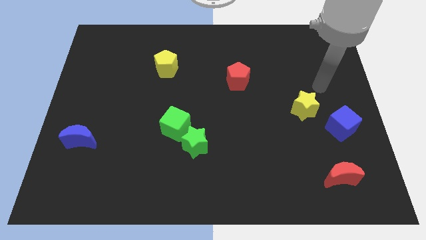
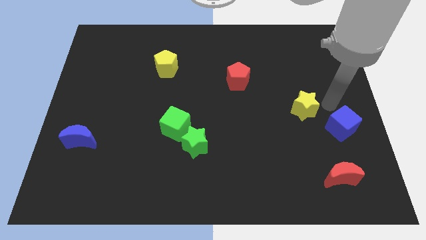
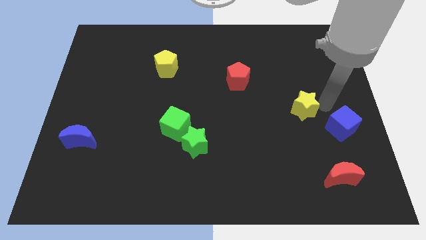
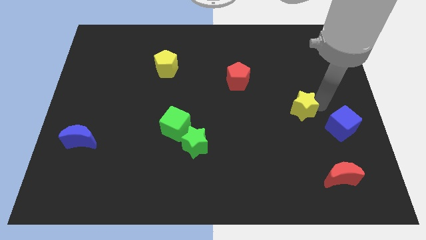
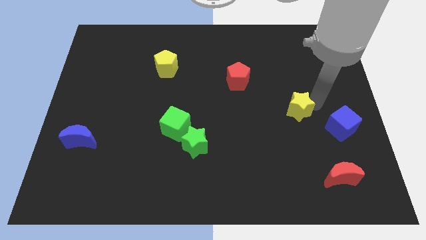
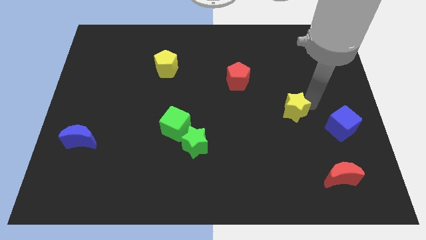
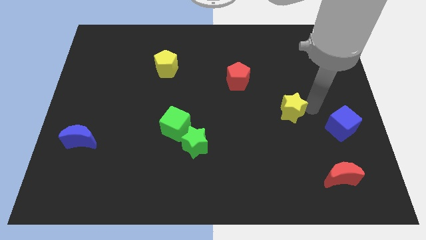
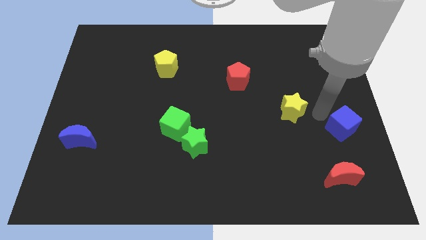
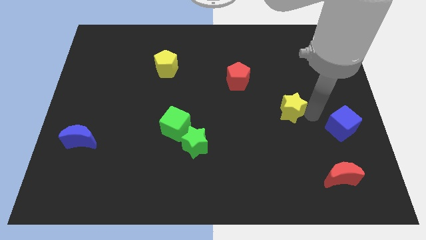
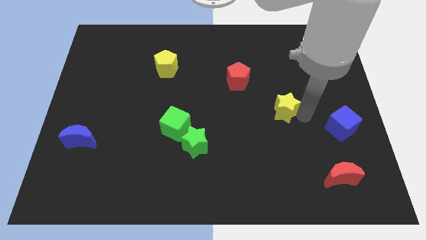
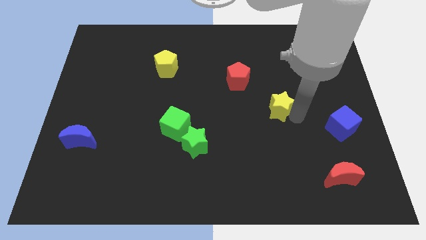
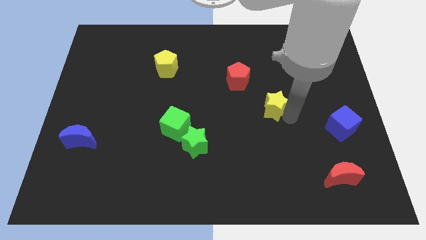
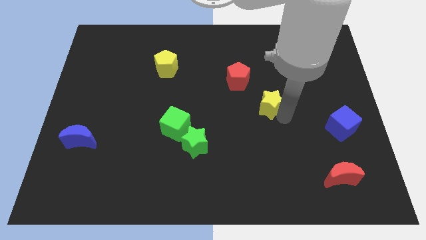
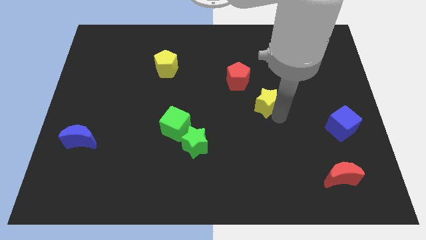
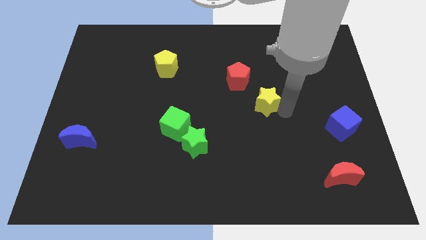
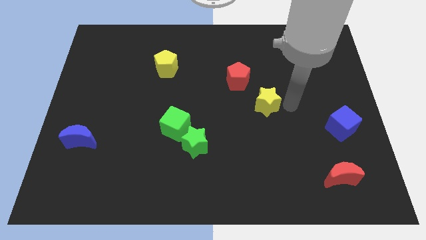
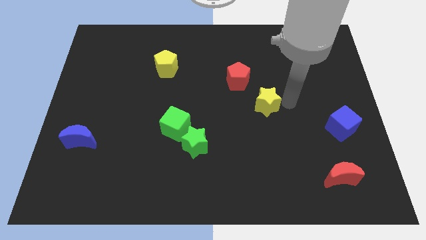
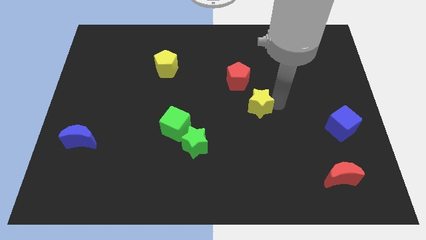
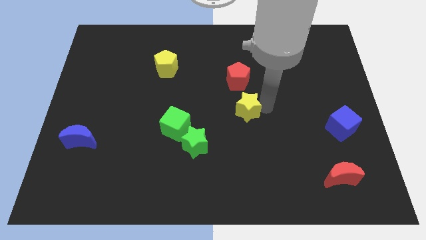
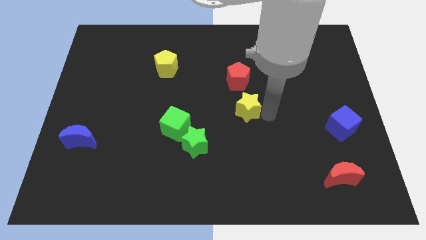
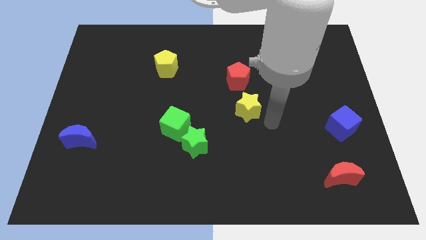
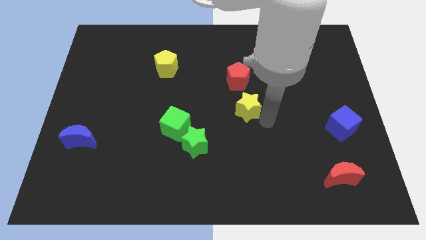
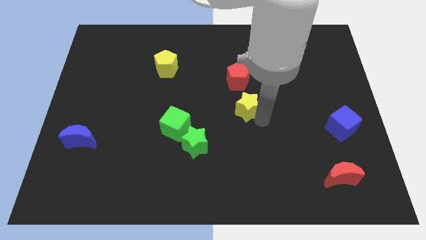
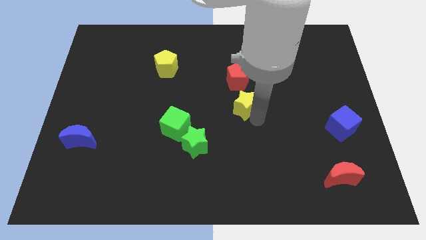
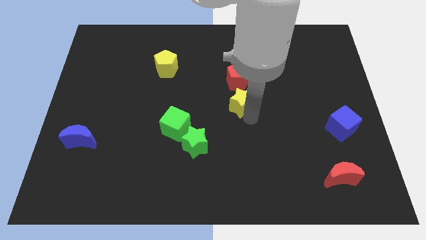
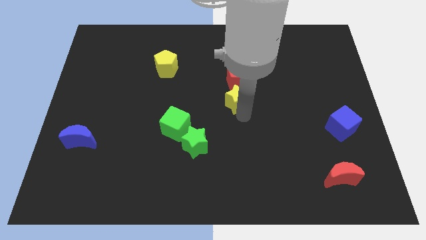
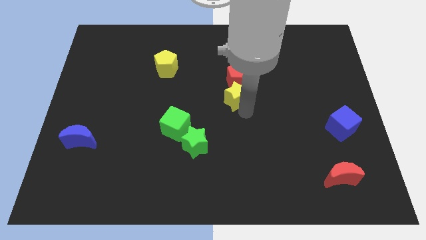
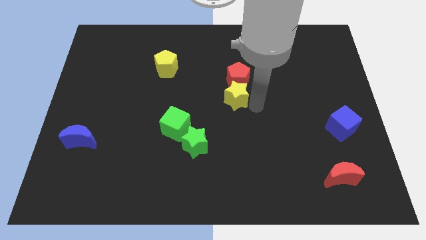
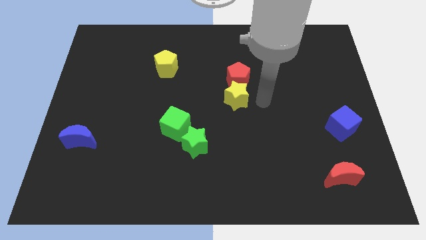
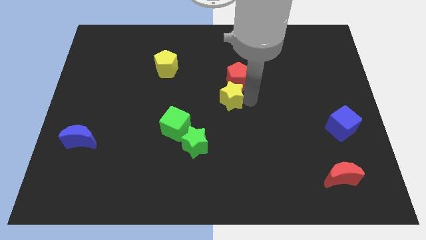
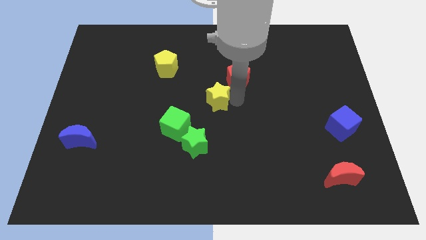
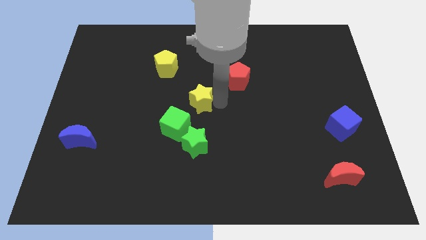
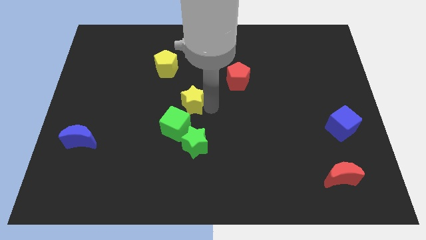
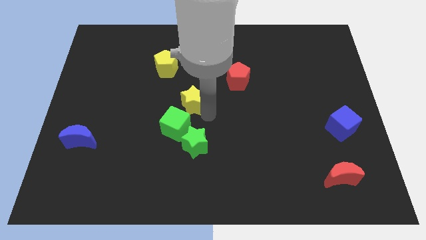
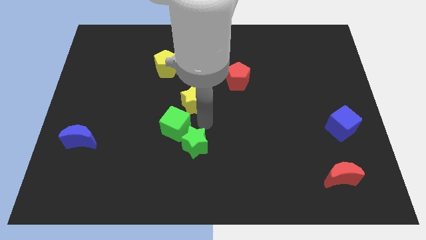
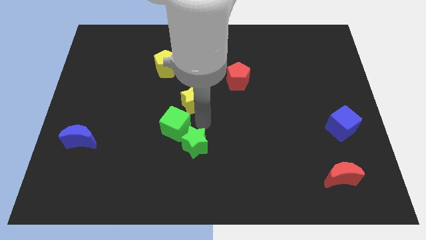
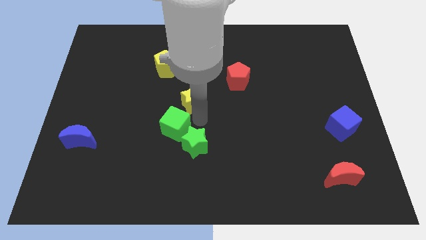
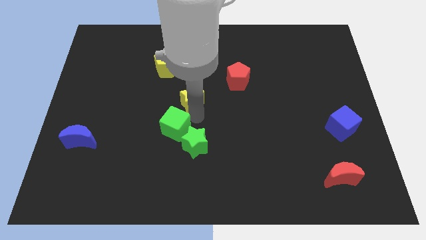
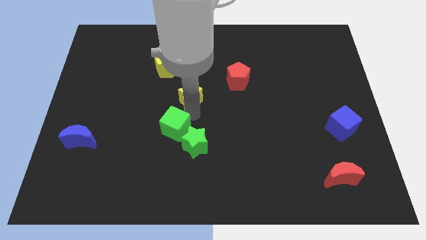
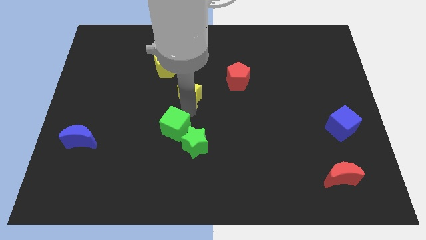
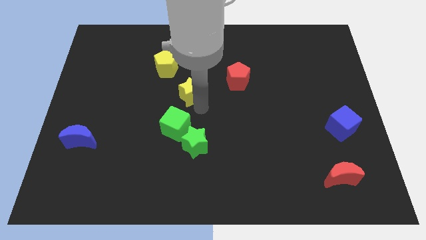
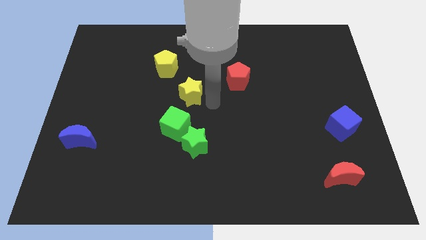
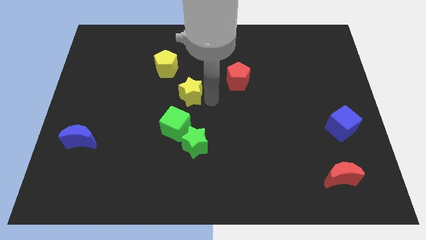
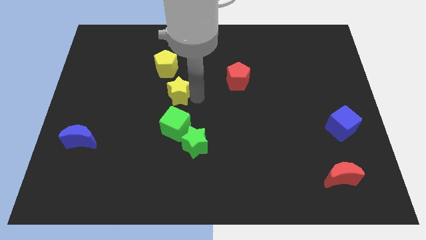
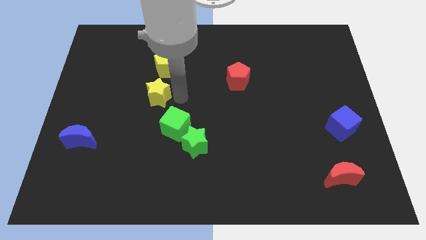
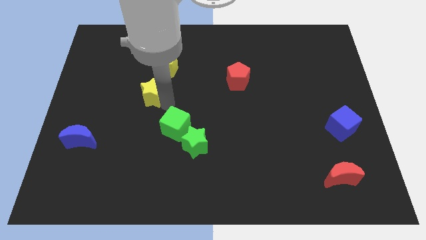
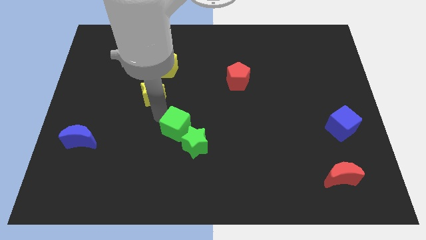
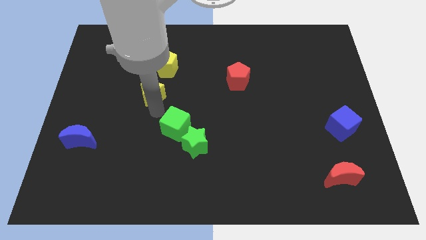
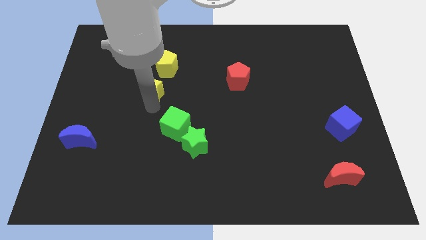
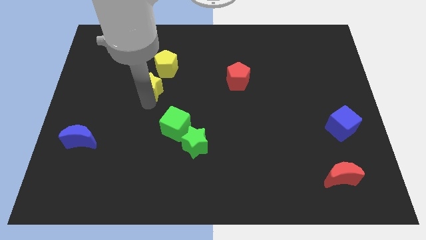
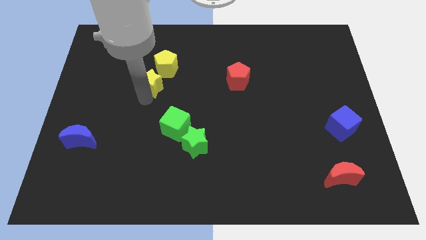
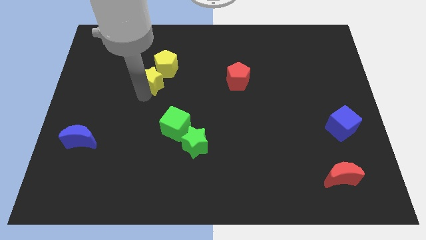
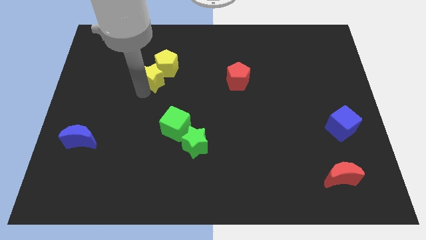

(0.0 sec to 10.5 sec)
slide the yellow star to the left side of the yellow pentagon

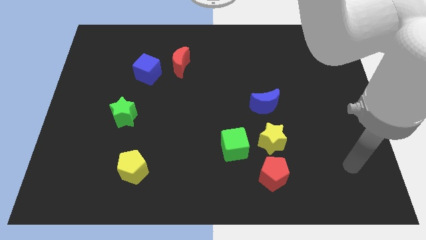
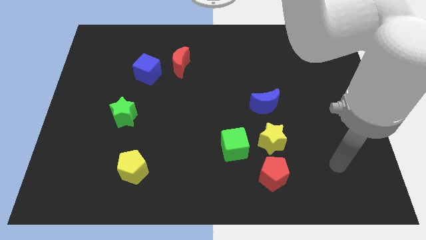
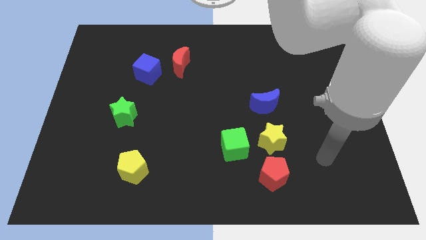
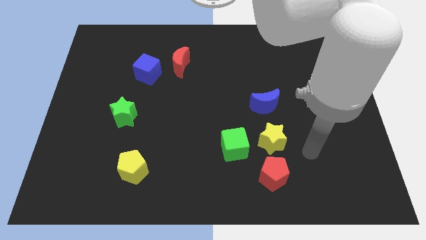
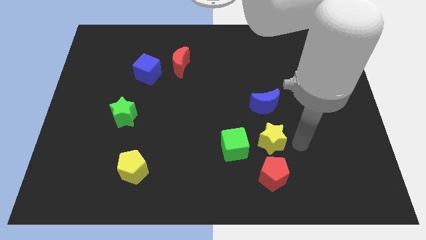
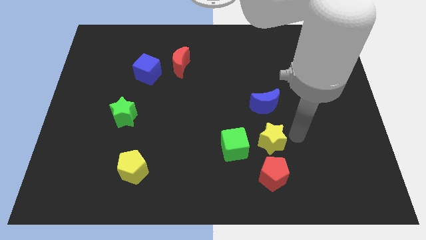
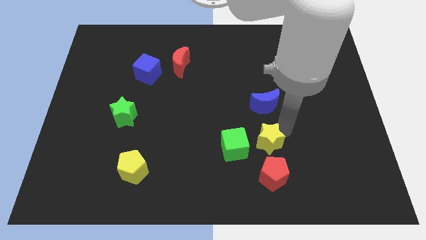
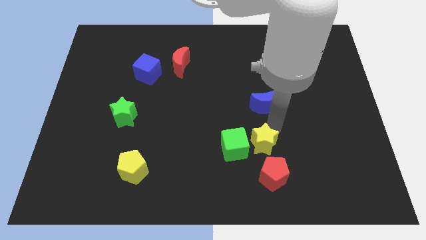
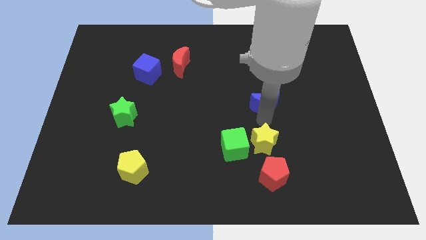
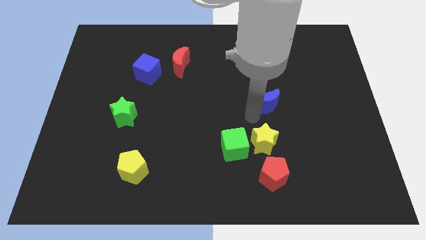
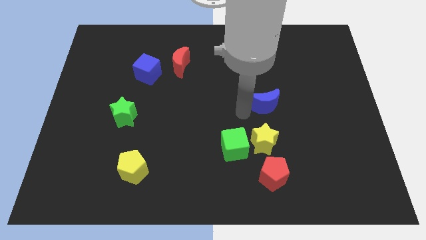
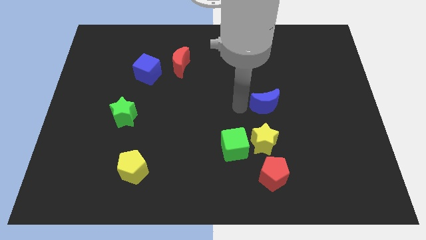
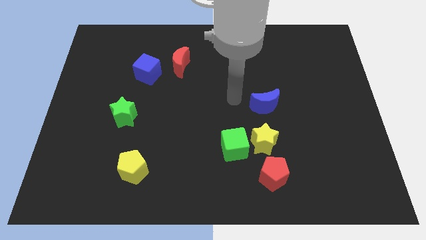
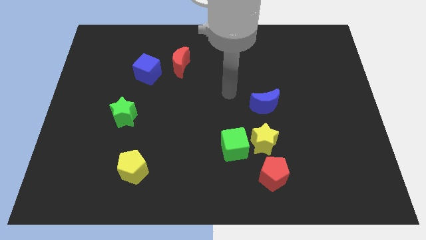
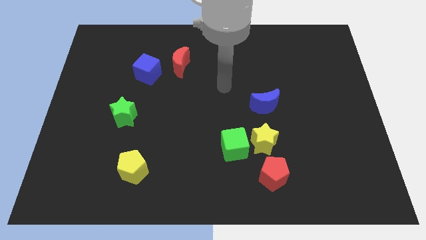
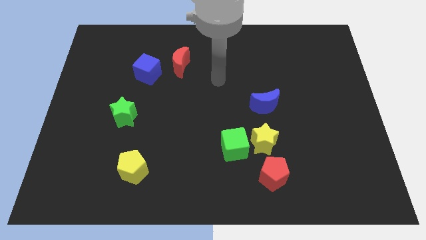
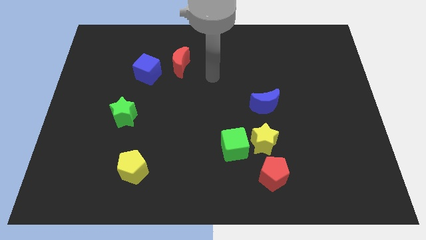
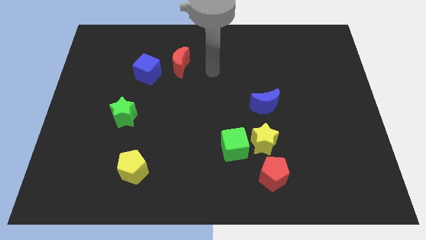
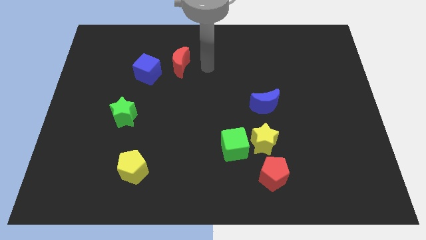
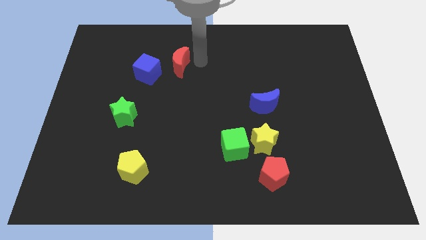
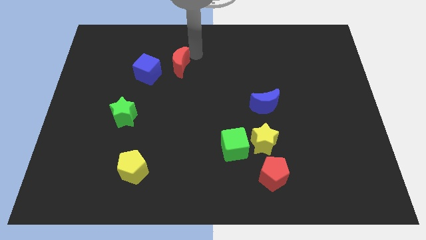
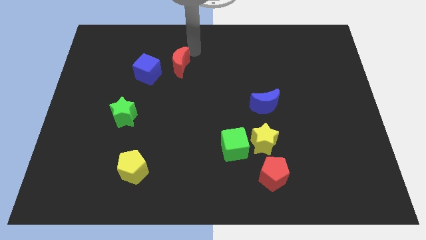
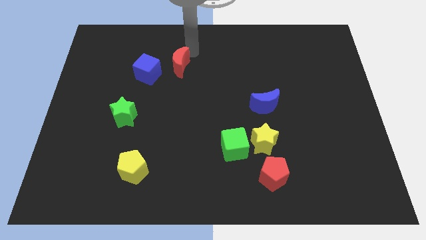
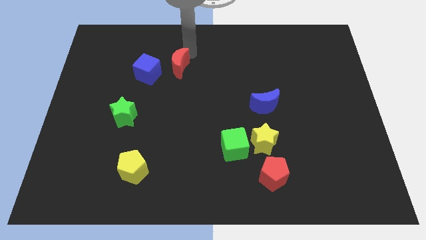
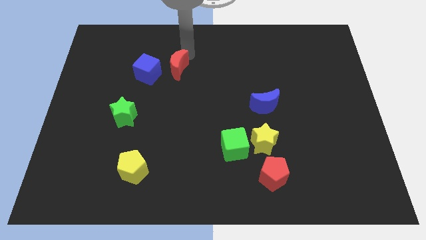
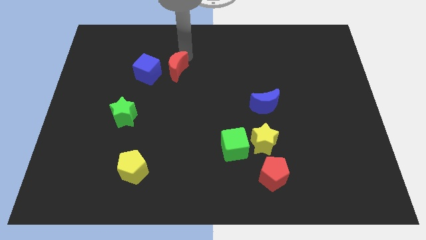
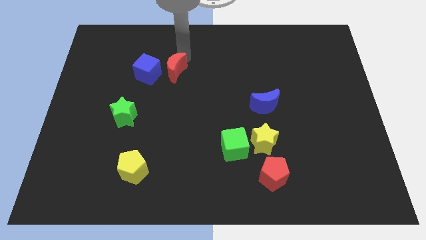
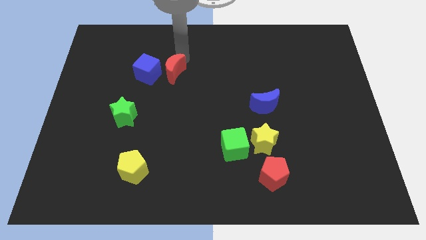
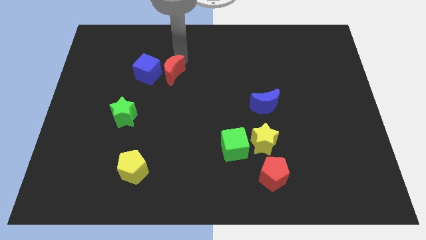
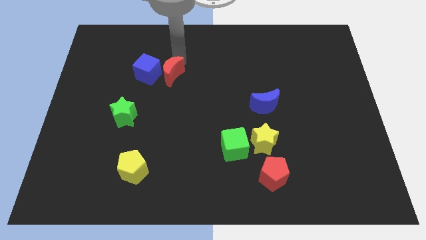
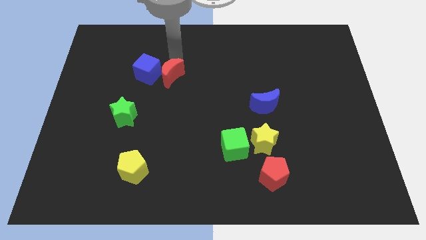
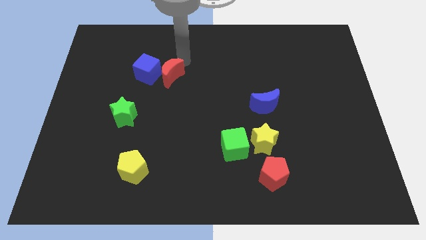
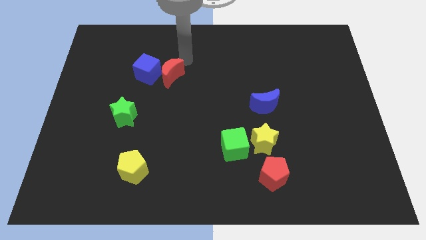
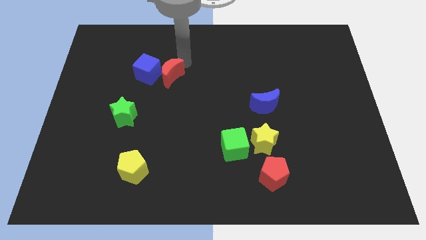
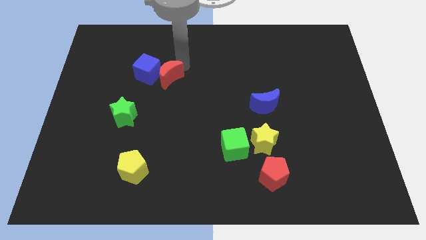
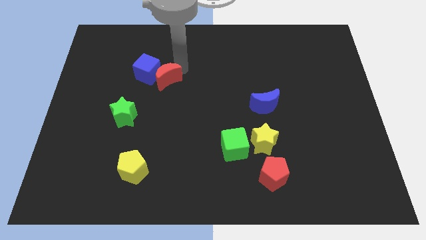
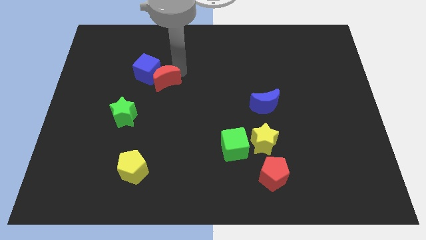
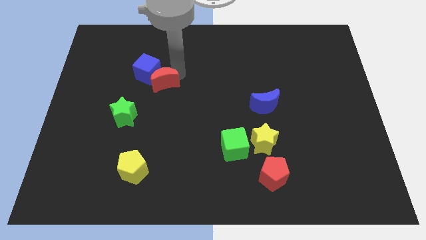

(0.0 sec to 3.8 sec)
push the red moon below the blue cube
